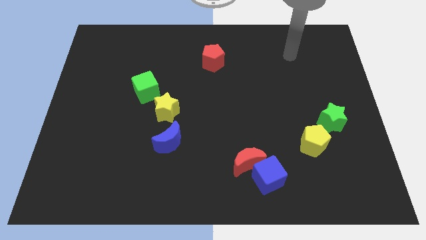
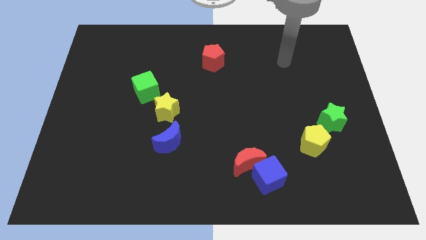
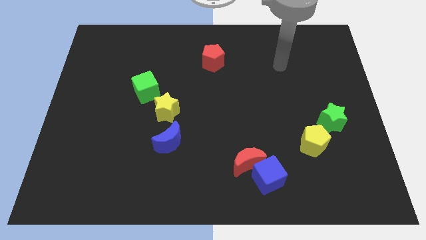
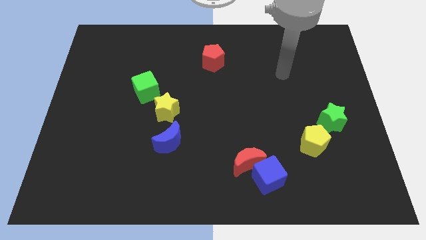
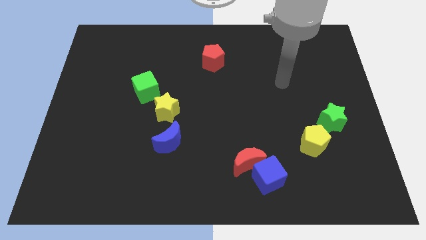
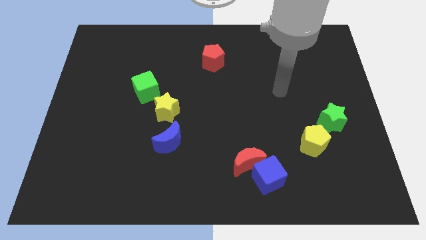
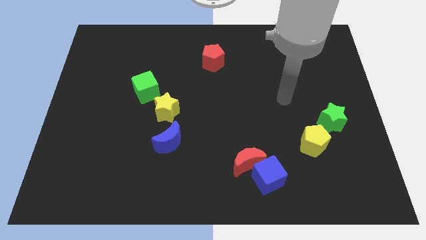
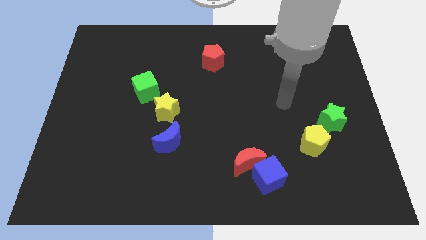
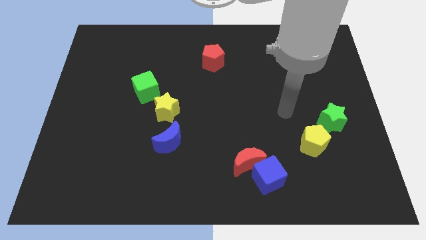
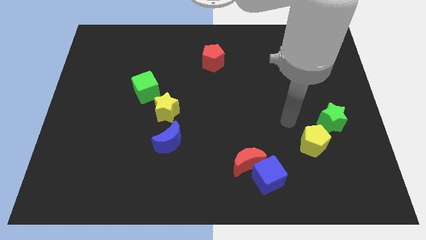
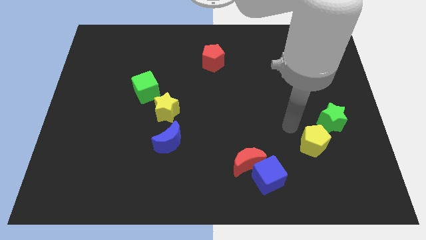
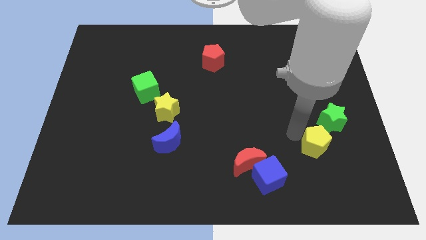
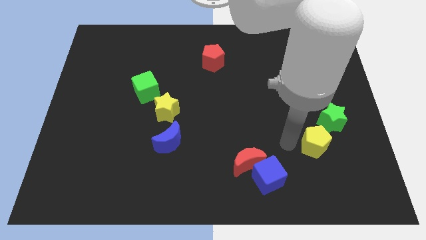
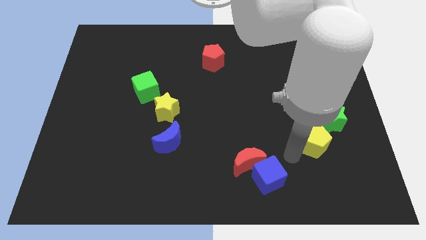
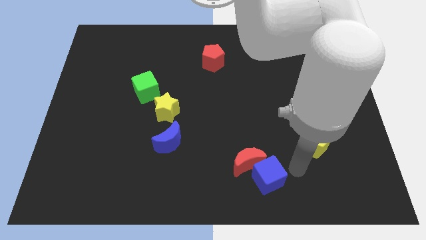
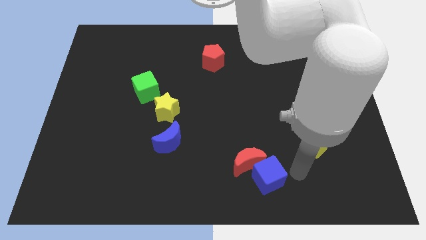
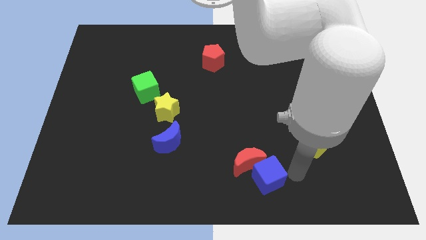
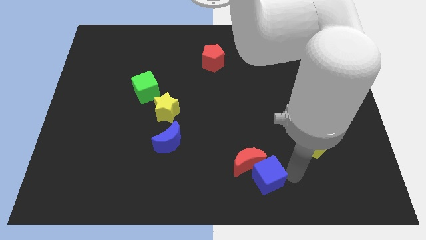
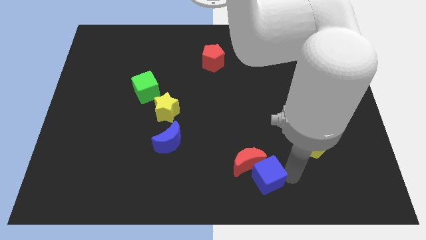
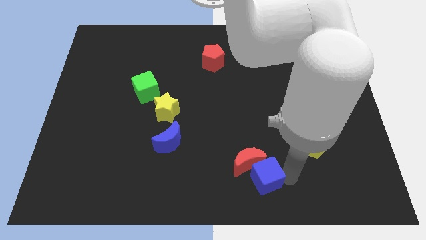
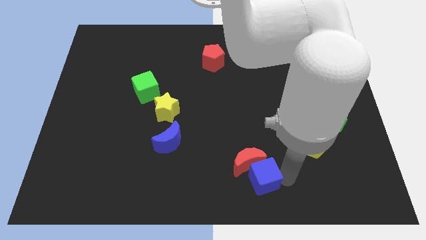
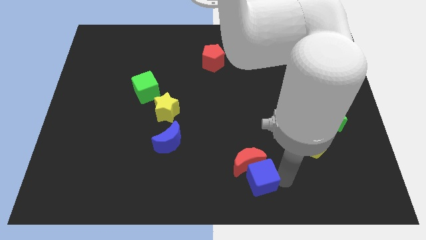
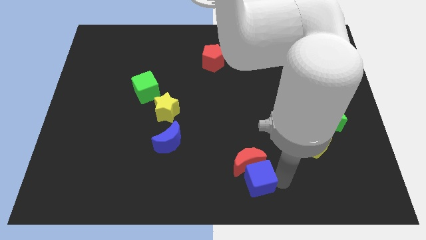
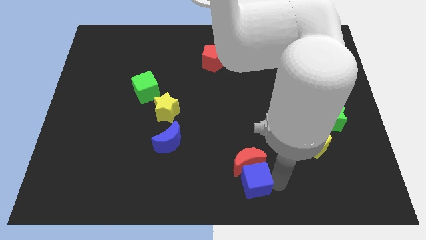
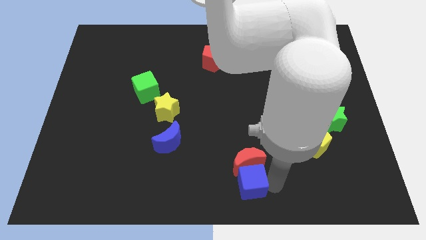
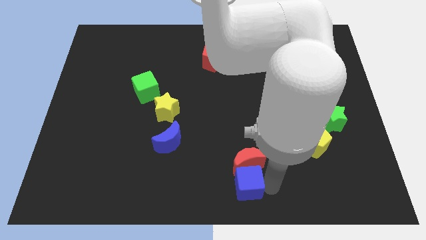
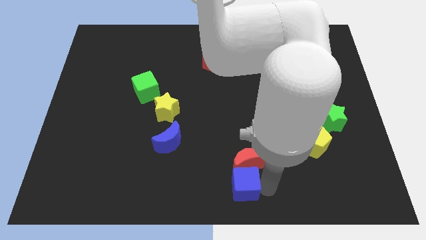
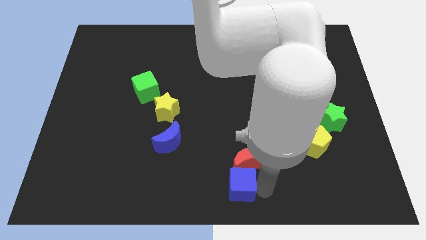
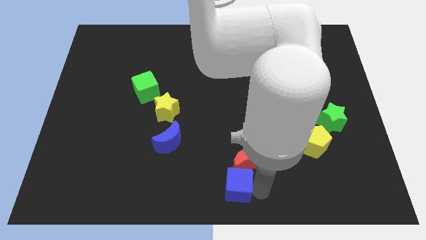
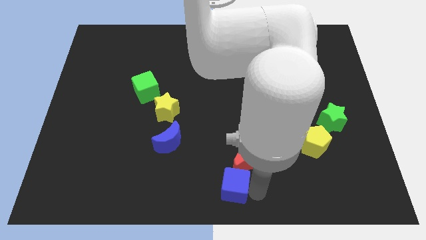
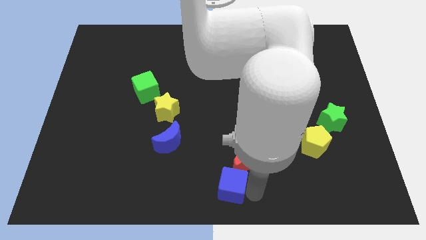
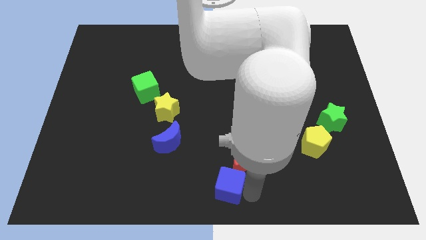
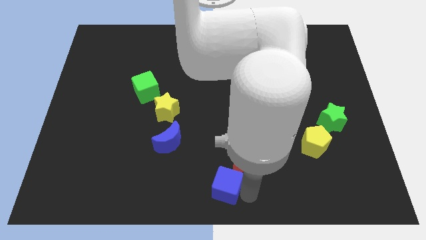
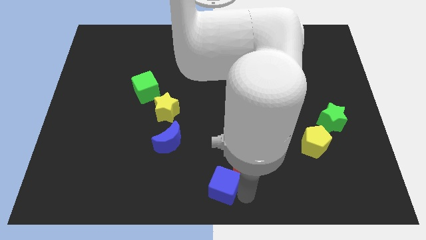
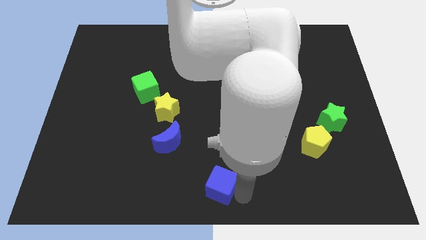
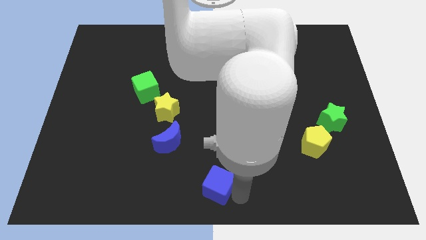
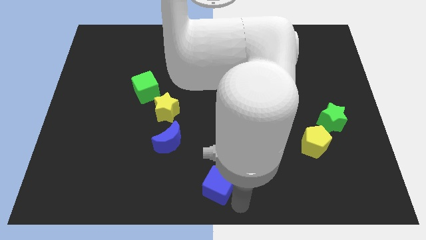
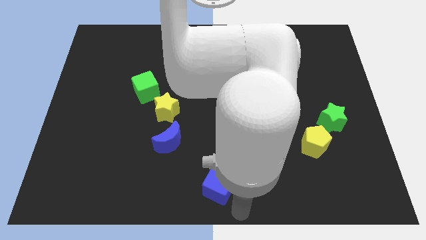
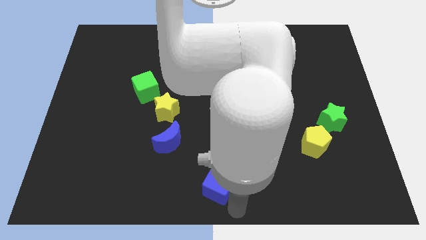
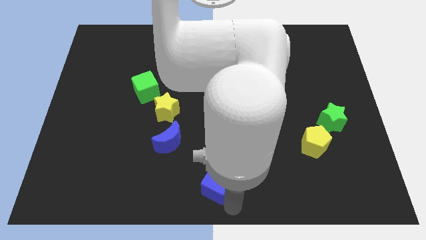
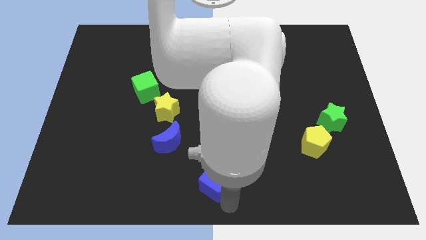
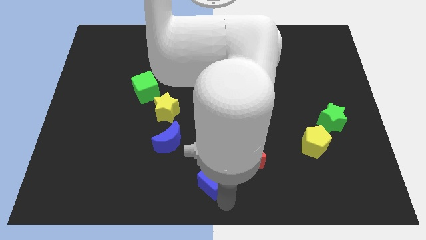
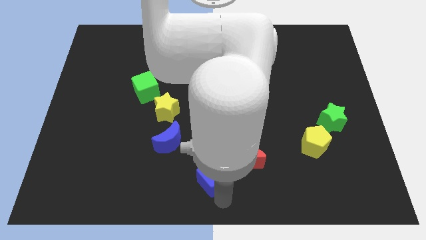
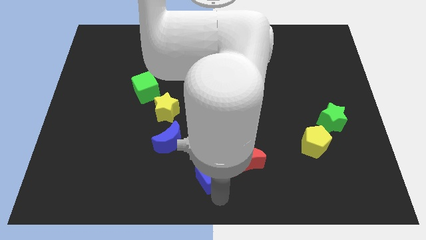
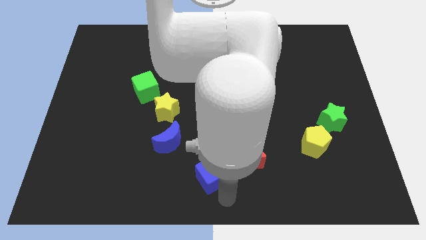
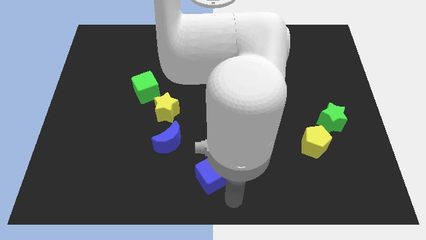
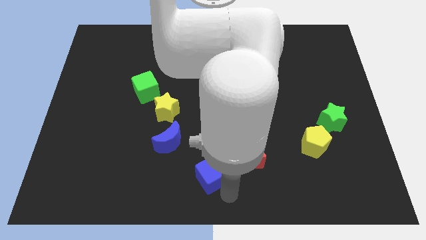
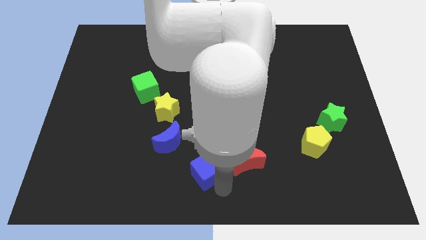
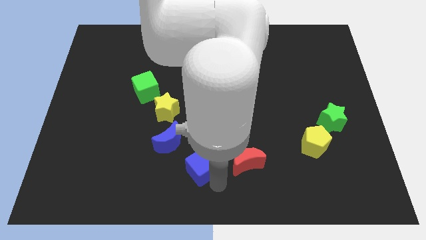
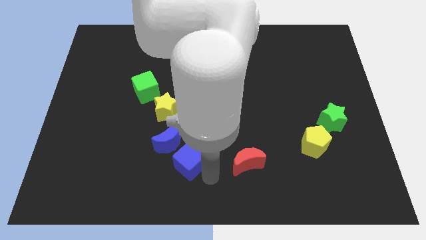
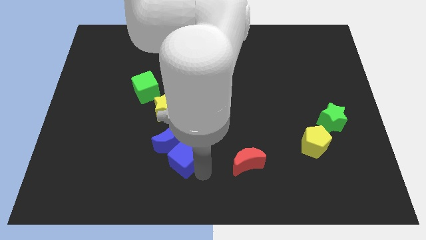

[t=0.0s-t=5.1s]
move the blue cube towards the blue moon

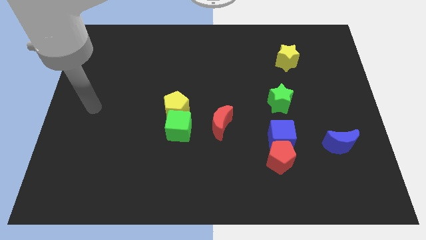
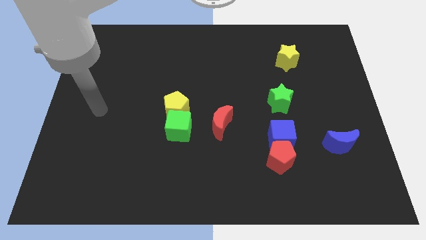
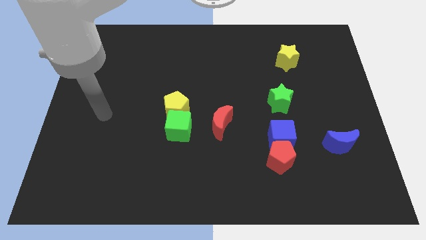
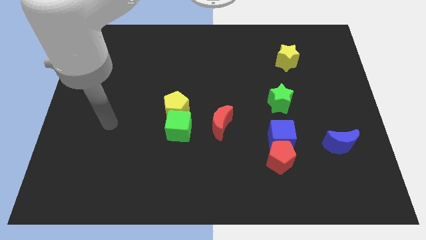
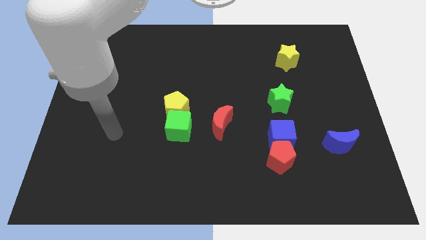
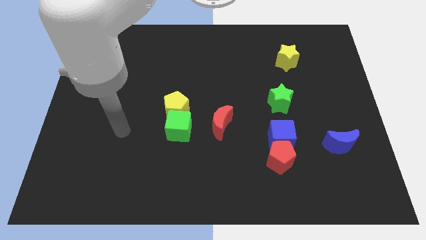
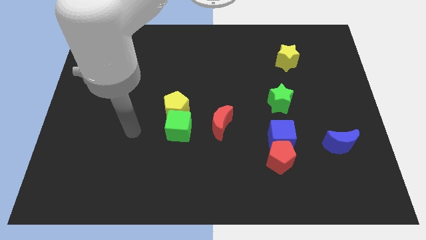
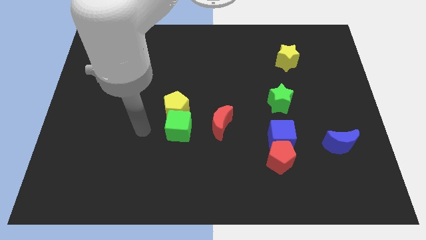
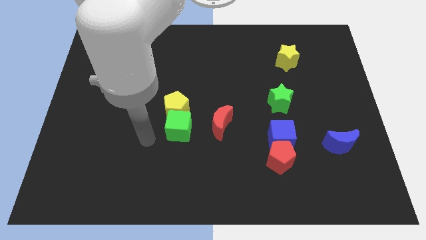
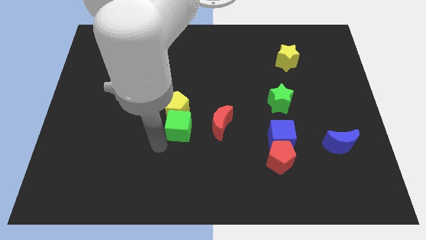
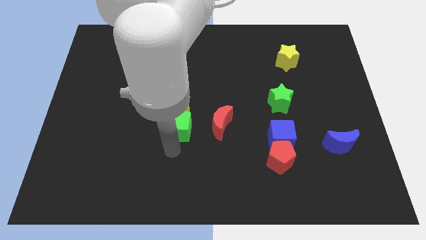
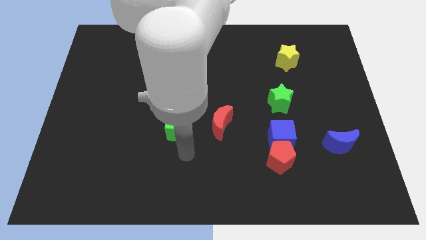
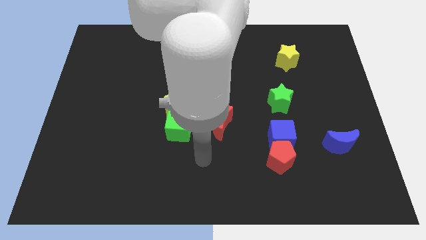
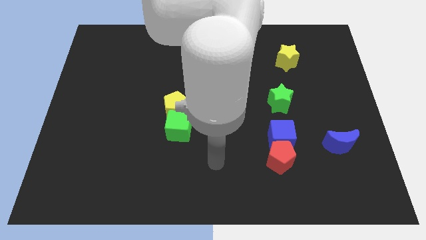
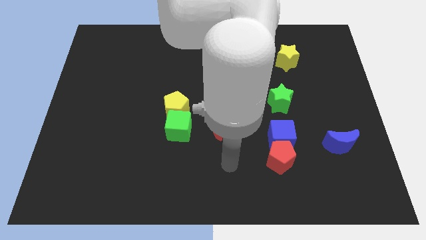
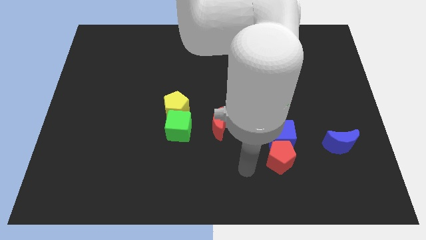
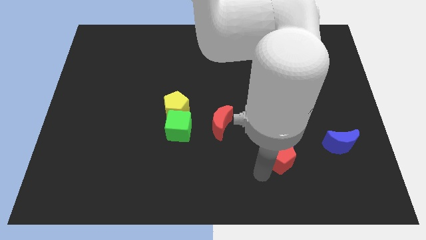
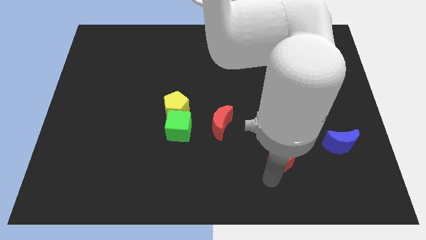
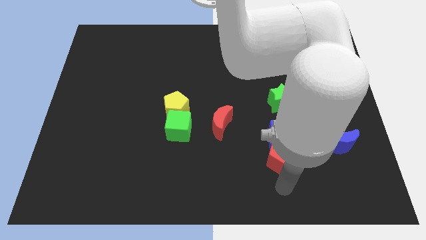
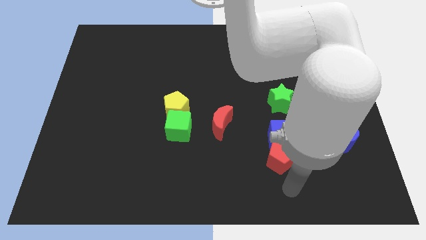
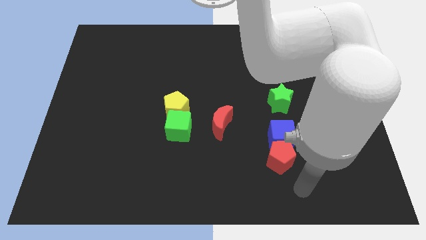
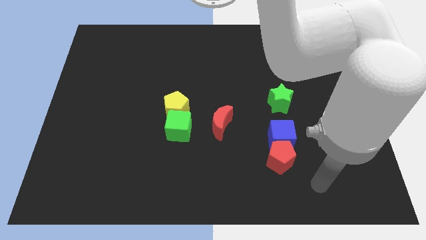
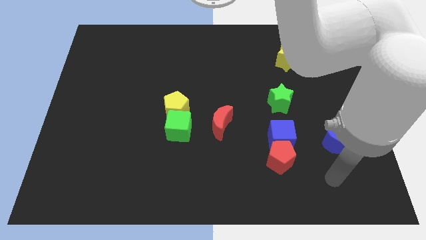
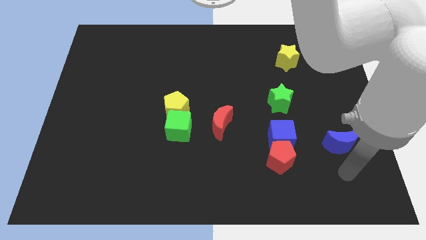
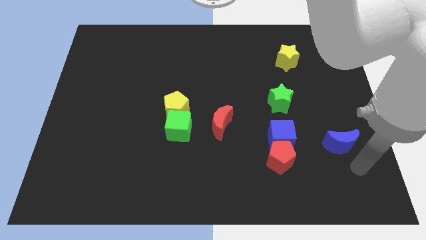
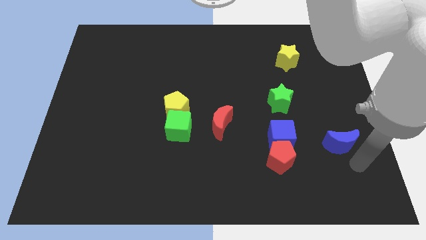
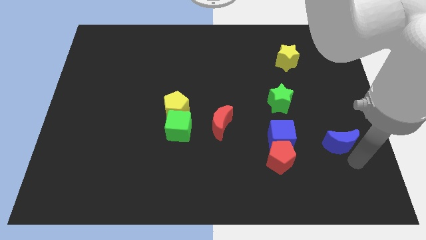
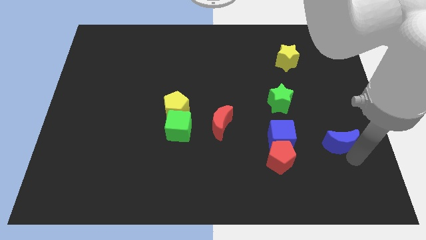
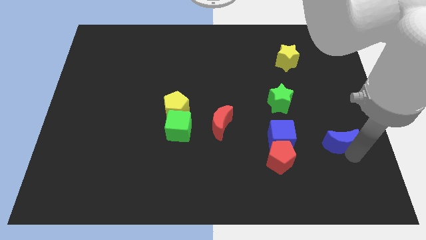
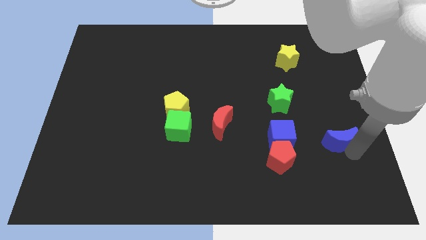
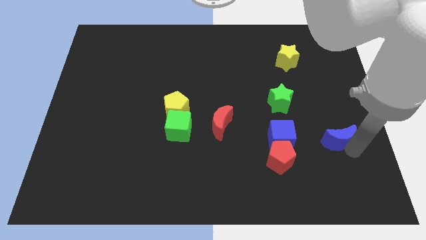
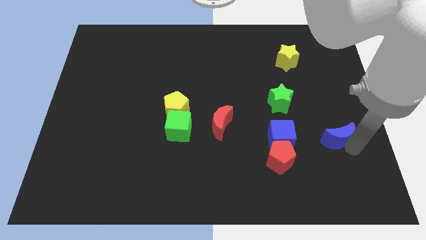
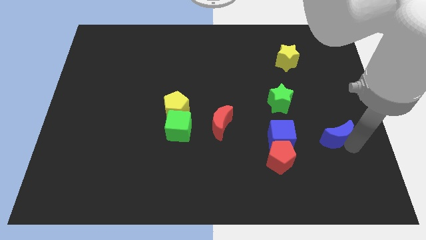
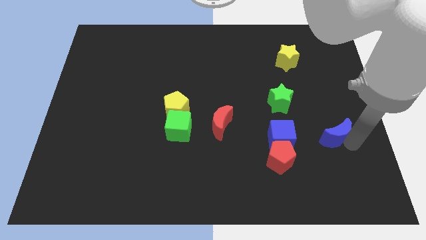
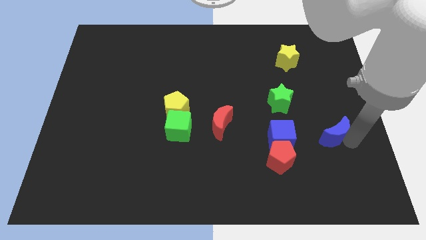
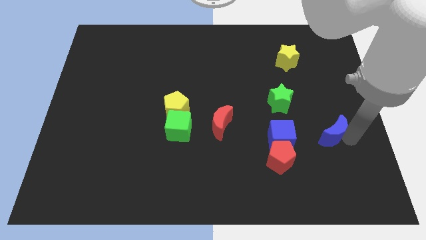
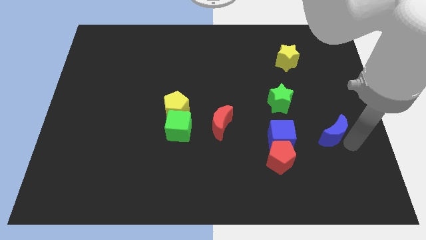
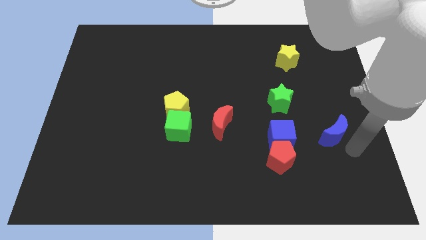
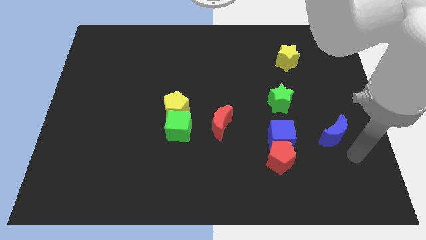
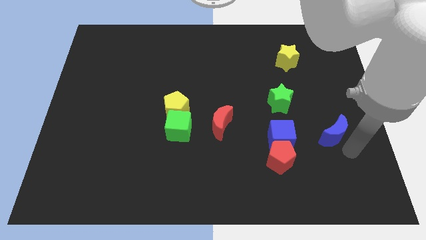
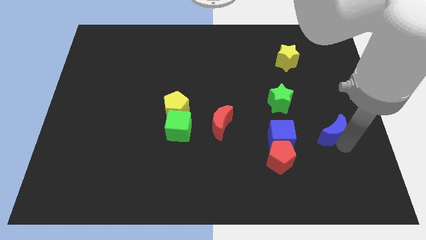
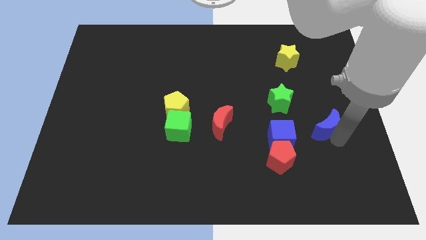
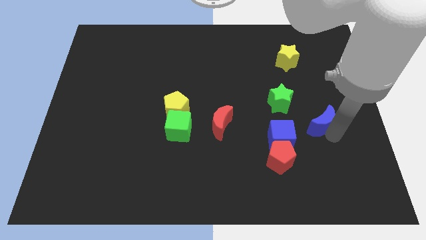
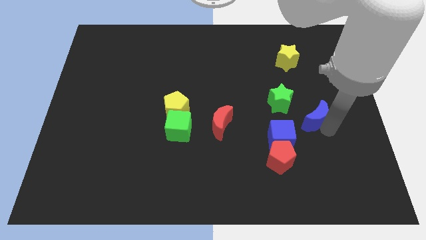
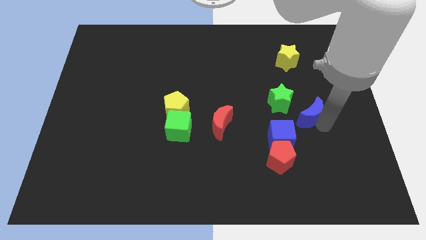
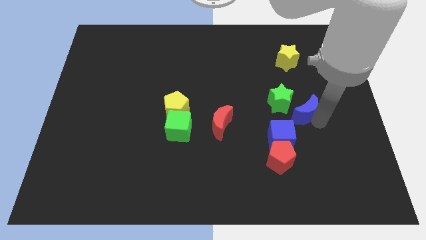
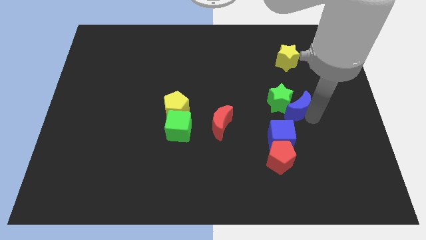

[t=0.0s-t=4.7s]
slide the blue moon to the green star
